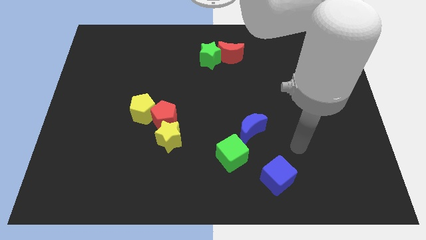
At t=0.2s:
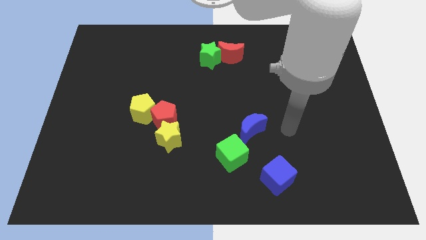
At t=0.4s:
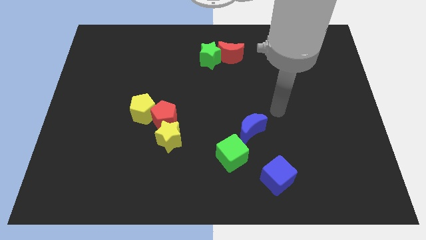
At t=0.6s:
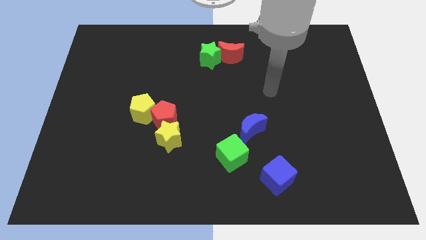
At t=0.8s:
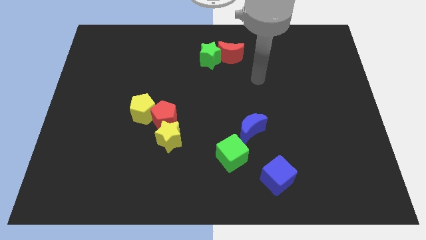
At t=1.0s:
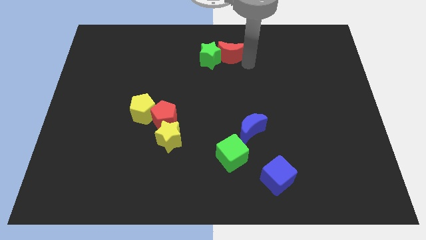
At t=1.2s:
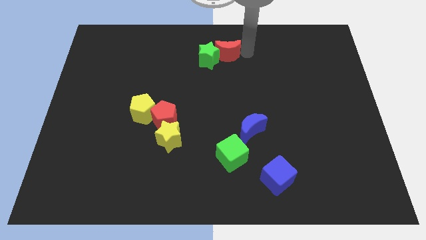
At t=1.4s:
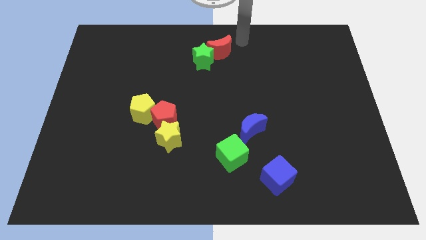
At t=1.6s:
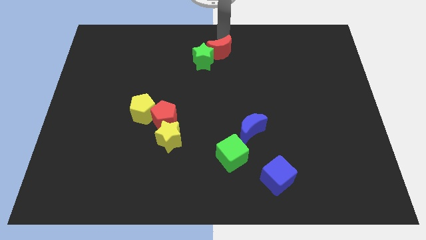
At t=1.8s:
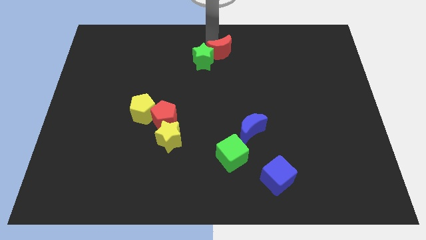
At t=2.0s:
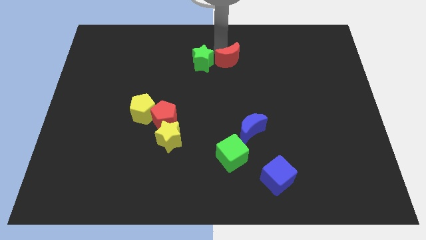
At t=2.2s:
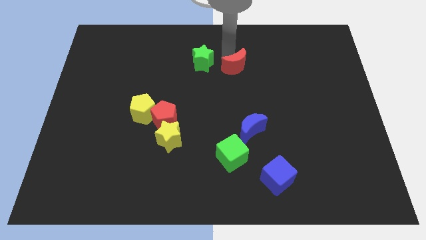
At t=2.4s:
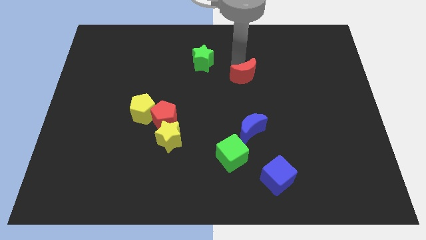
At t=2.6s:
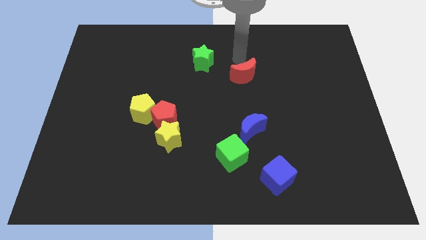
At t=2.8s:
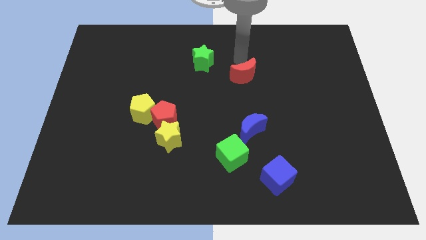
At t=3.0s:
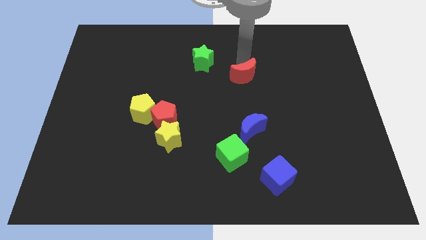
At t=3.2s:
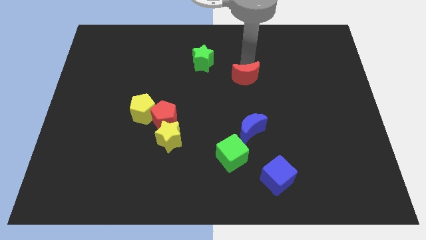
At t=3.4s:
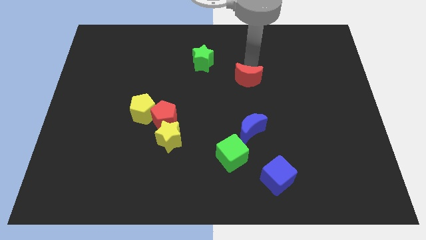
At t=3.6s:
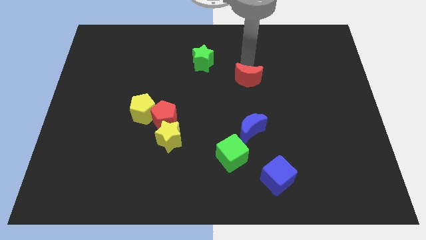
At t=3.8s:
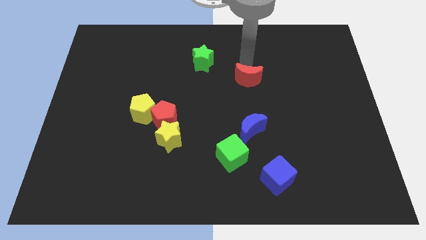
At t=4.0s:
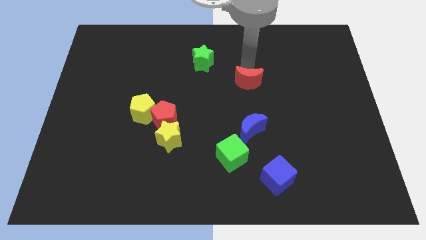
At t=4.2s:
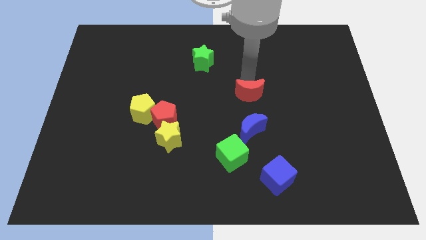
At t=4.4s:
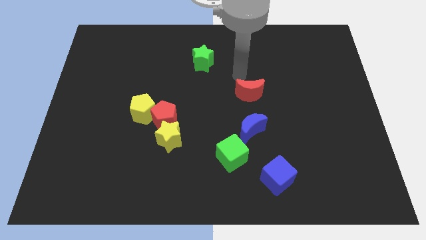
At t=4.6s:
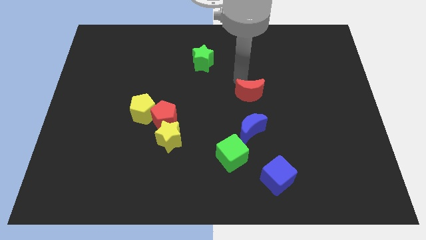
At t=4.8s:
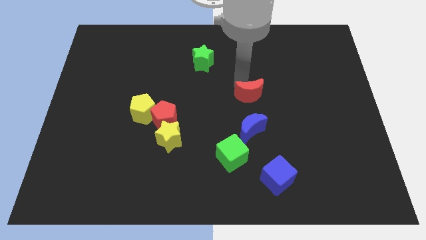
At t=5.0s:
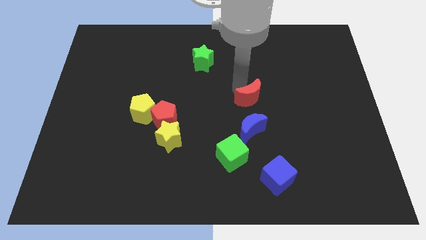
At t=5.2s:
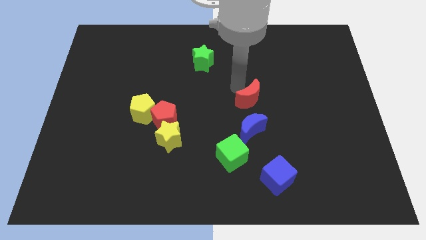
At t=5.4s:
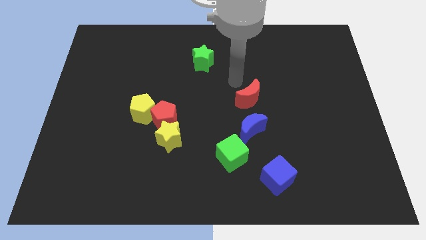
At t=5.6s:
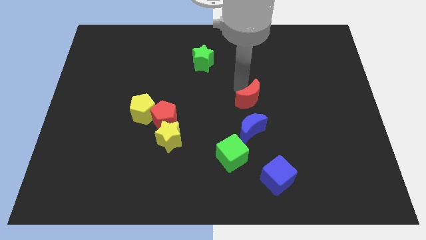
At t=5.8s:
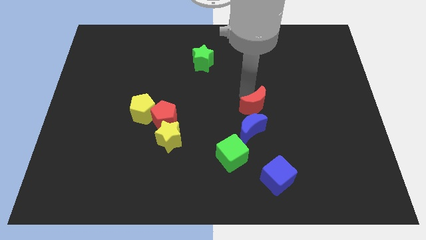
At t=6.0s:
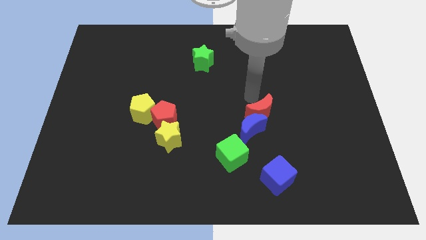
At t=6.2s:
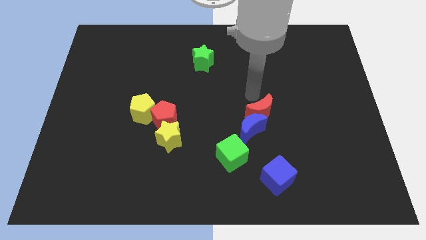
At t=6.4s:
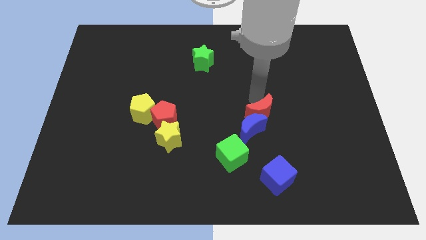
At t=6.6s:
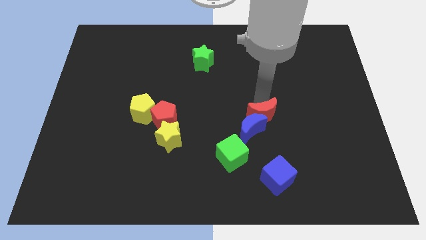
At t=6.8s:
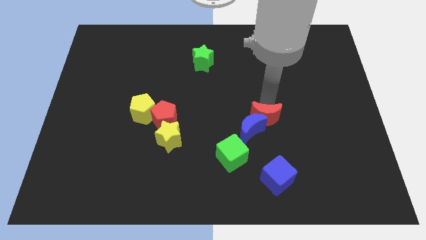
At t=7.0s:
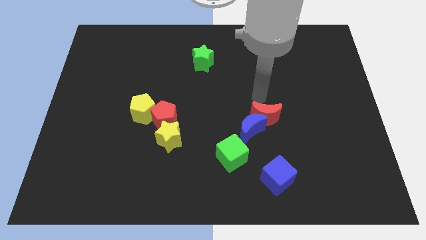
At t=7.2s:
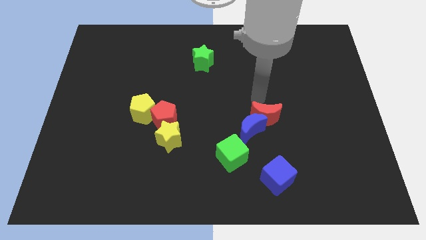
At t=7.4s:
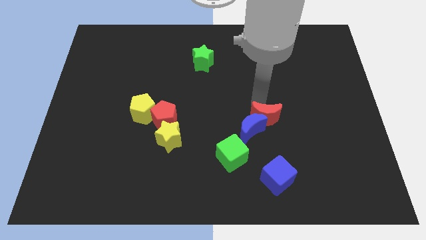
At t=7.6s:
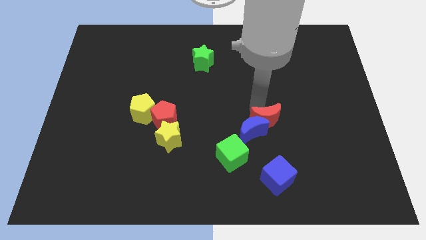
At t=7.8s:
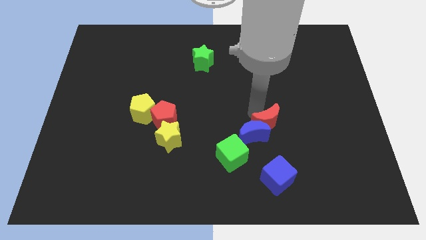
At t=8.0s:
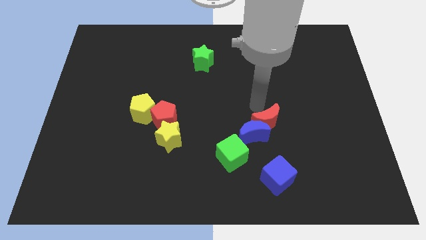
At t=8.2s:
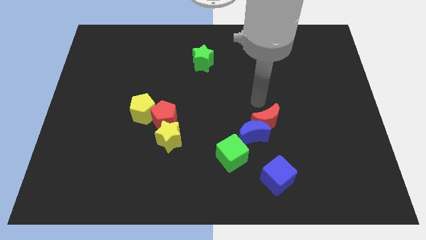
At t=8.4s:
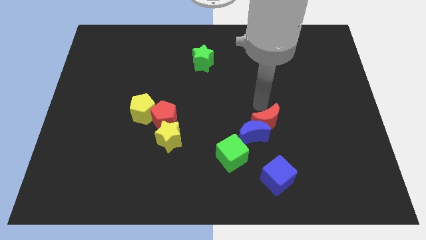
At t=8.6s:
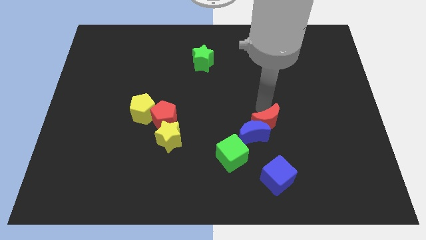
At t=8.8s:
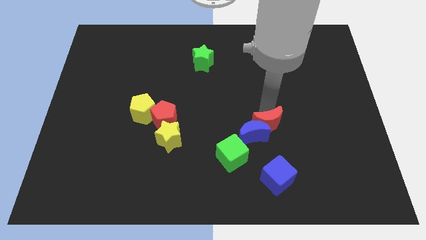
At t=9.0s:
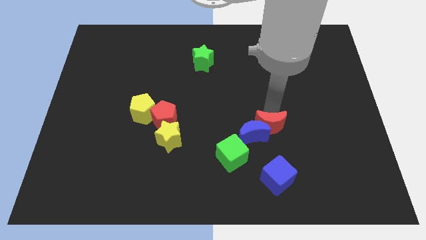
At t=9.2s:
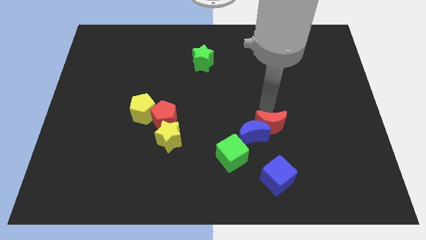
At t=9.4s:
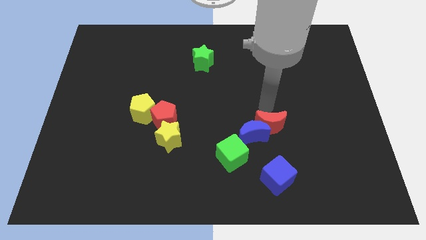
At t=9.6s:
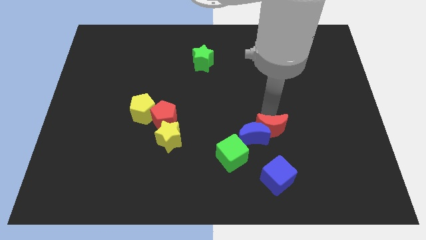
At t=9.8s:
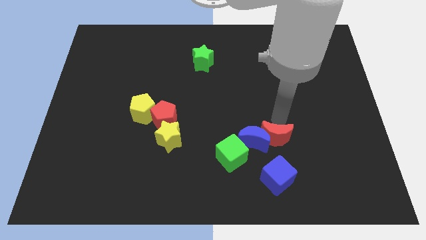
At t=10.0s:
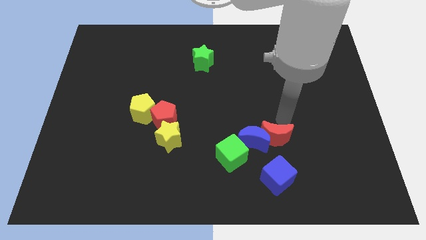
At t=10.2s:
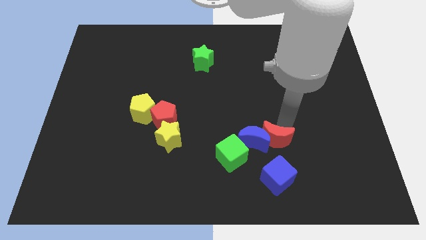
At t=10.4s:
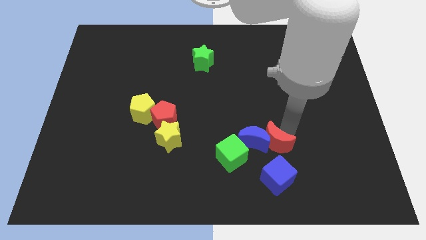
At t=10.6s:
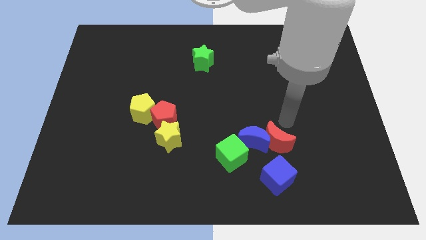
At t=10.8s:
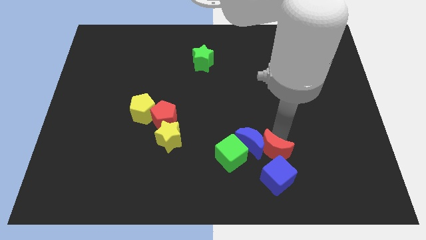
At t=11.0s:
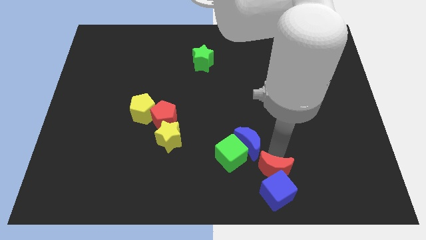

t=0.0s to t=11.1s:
push the red moon below the blue moon

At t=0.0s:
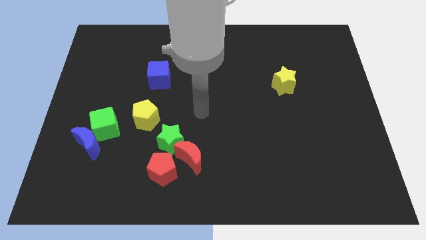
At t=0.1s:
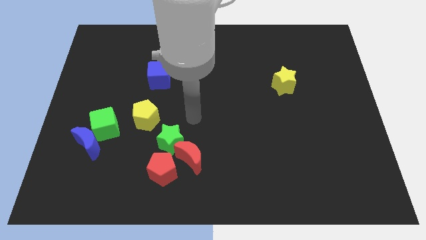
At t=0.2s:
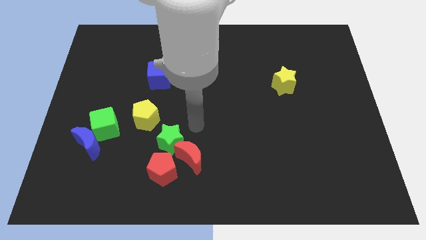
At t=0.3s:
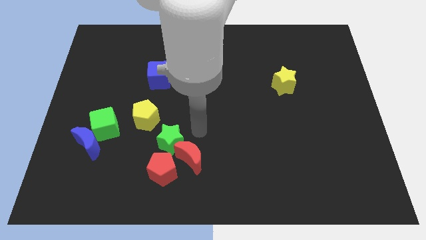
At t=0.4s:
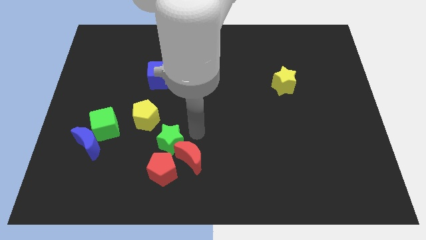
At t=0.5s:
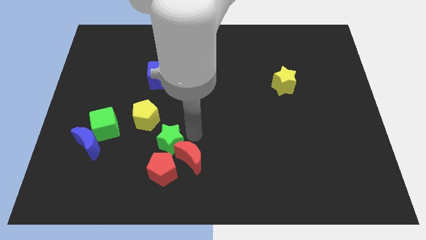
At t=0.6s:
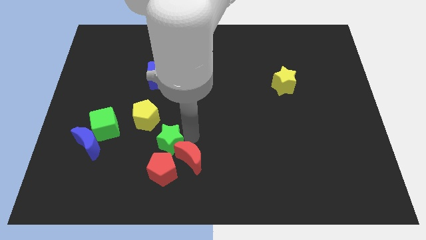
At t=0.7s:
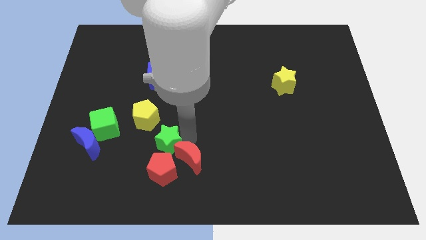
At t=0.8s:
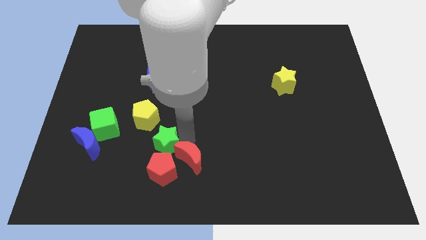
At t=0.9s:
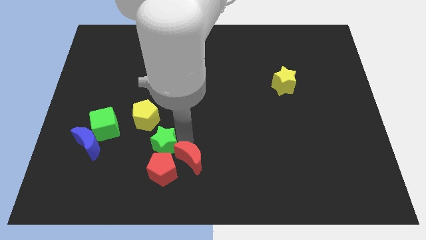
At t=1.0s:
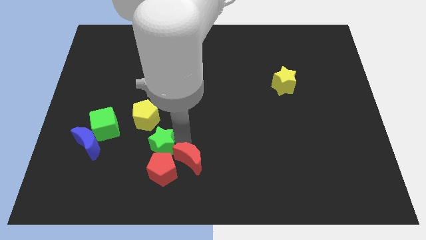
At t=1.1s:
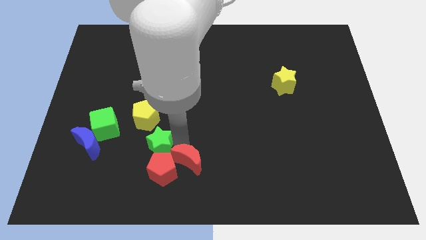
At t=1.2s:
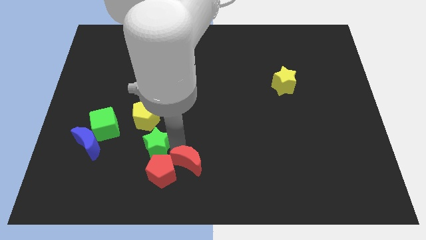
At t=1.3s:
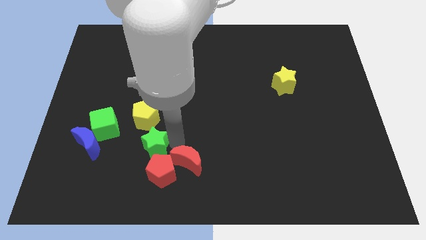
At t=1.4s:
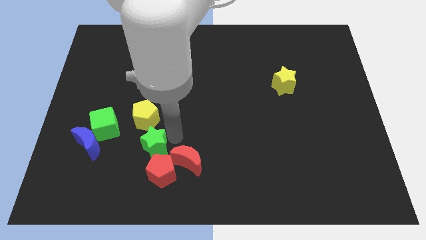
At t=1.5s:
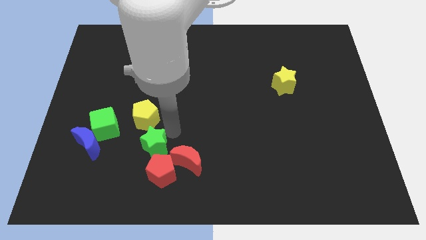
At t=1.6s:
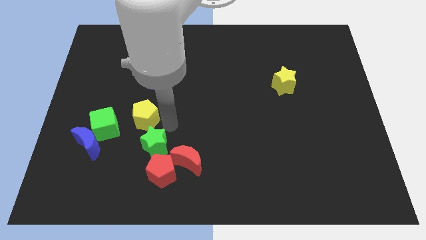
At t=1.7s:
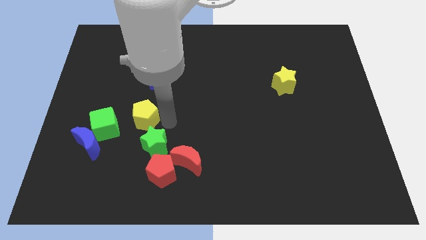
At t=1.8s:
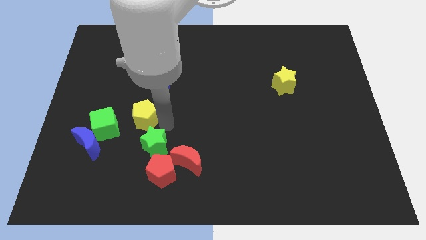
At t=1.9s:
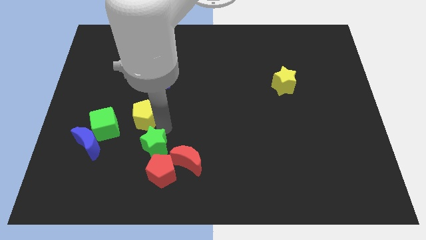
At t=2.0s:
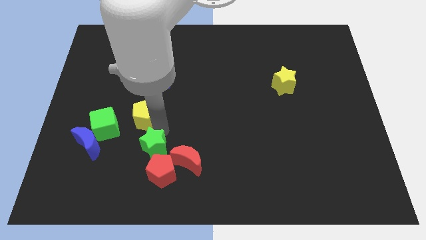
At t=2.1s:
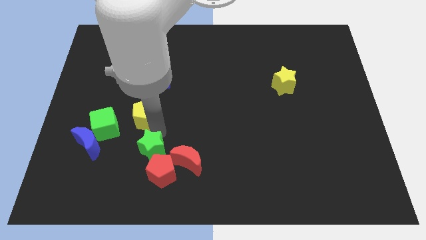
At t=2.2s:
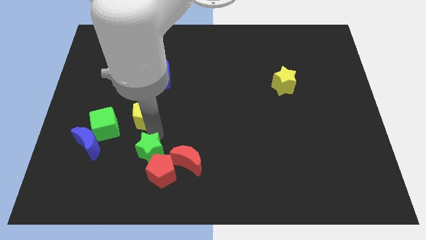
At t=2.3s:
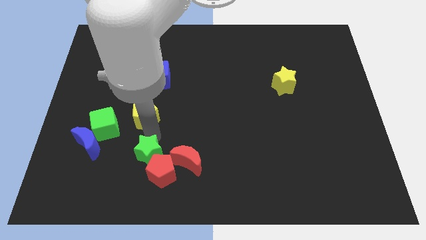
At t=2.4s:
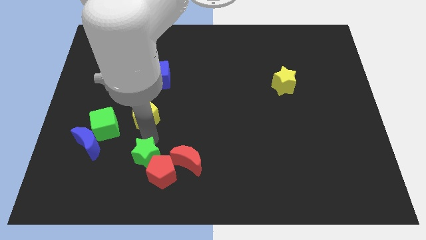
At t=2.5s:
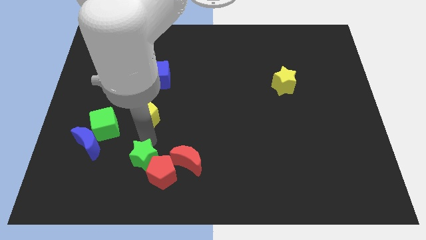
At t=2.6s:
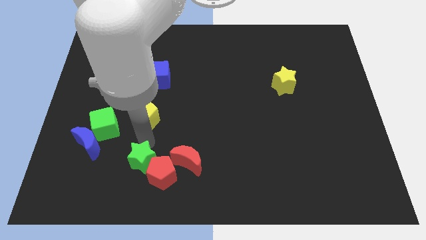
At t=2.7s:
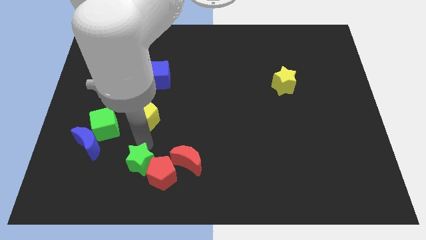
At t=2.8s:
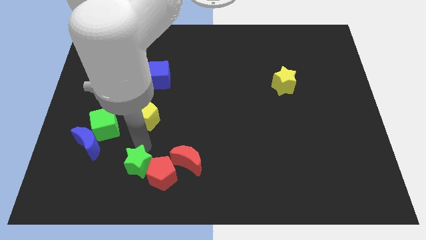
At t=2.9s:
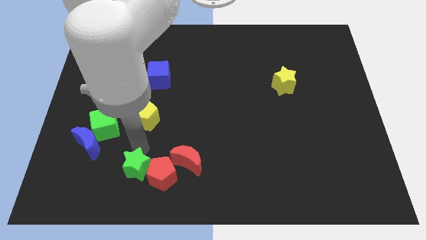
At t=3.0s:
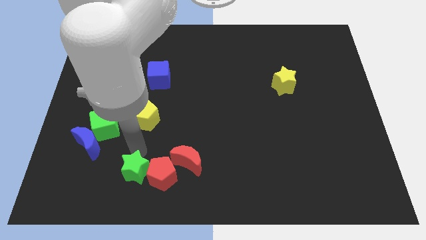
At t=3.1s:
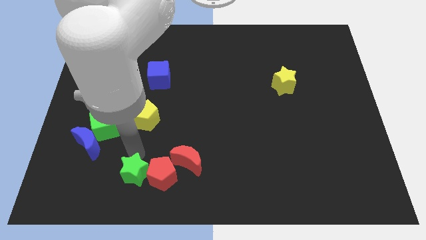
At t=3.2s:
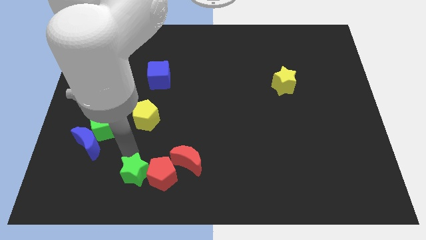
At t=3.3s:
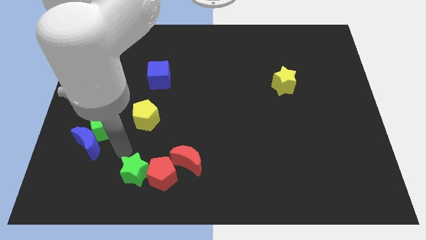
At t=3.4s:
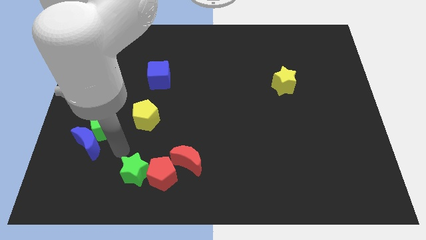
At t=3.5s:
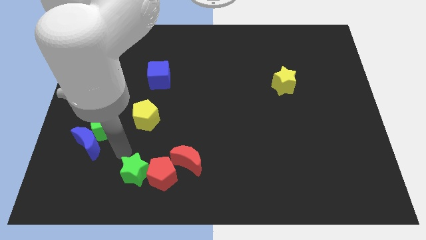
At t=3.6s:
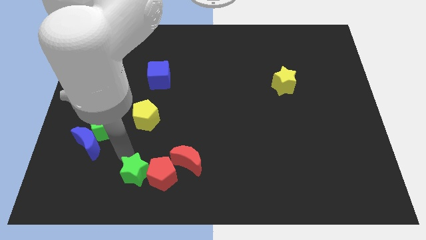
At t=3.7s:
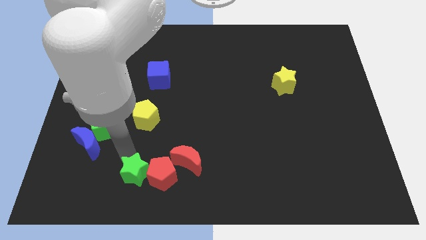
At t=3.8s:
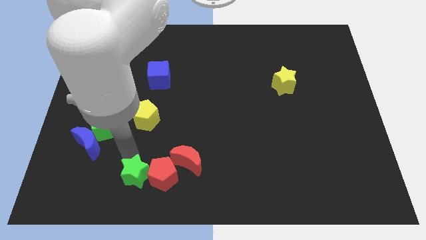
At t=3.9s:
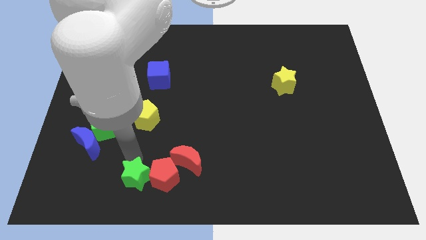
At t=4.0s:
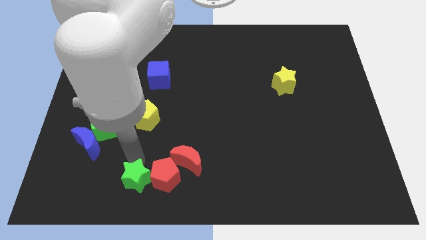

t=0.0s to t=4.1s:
push the green star to the bottom left of the red moon
